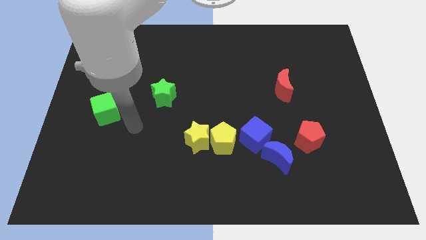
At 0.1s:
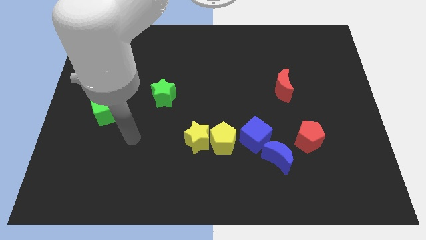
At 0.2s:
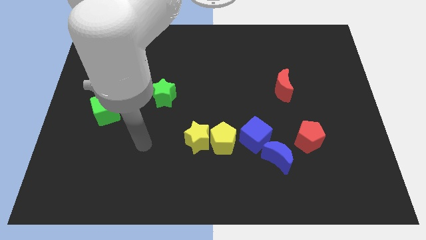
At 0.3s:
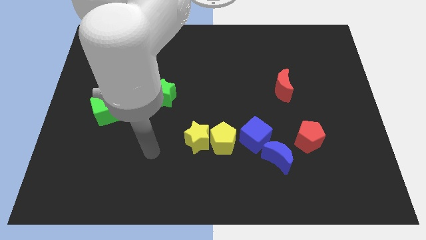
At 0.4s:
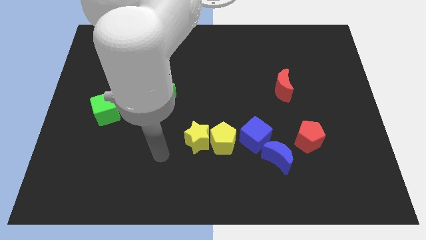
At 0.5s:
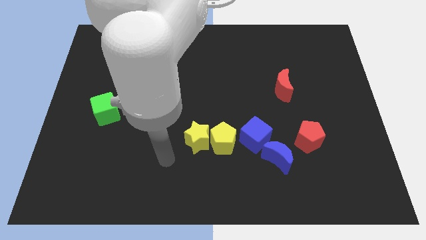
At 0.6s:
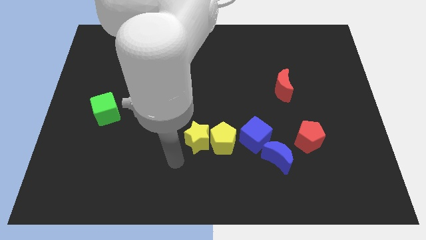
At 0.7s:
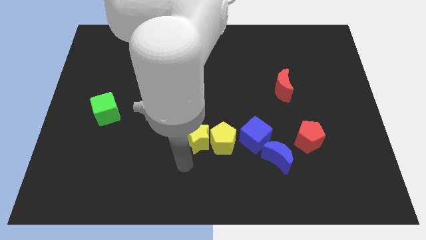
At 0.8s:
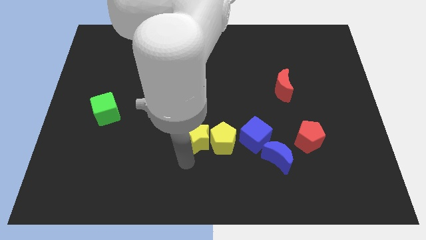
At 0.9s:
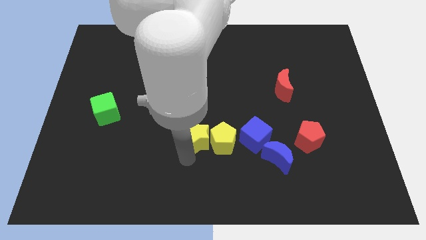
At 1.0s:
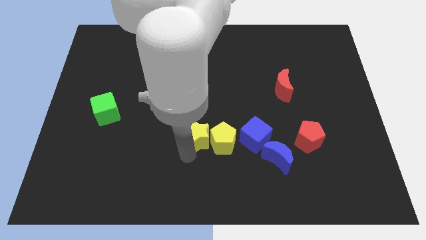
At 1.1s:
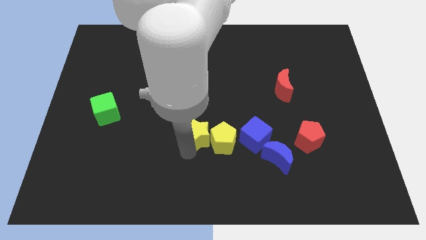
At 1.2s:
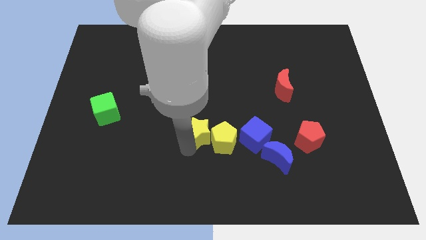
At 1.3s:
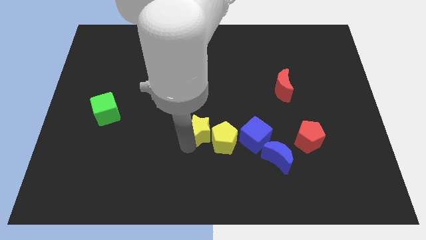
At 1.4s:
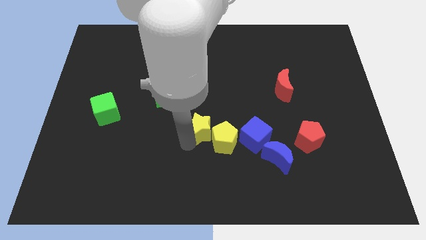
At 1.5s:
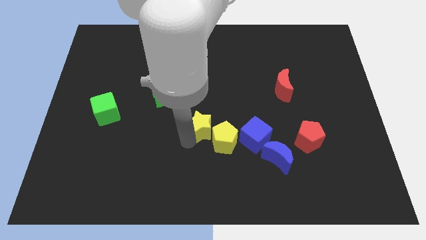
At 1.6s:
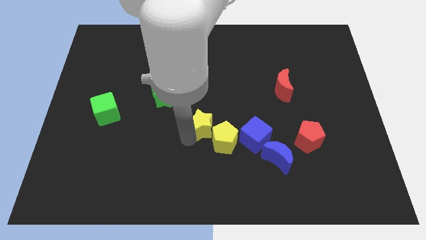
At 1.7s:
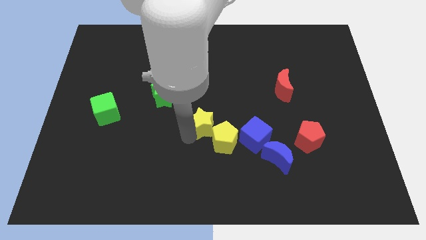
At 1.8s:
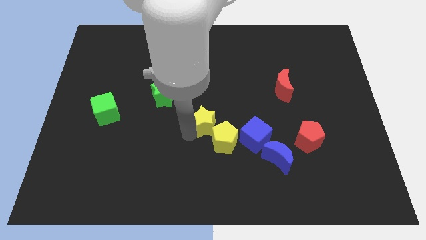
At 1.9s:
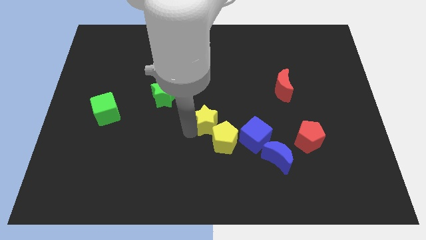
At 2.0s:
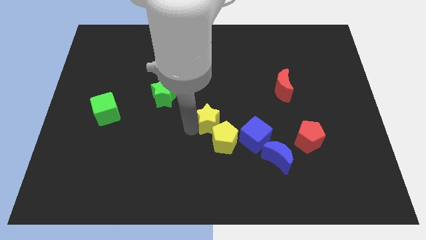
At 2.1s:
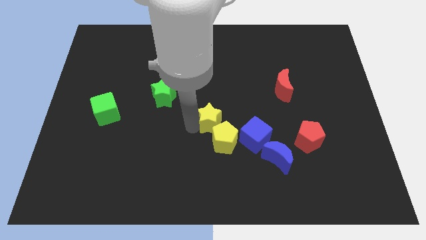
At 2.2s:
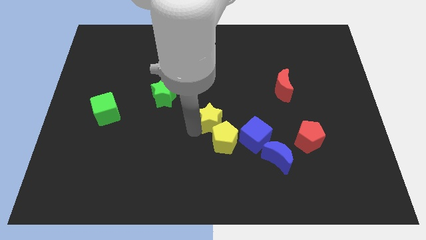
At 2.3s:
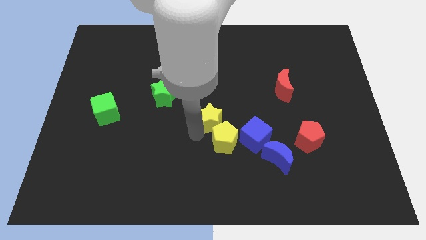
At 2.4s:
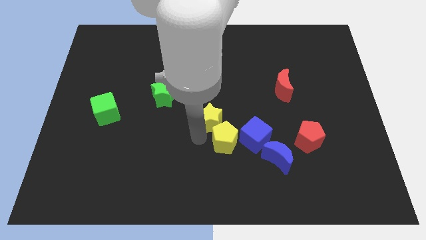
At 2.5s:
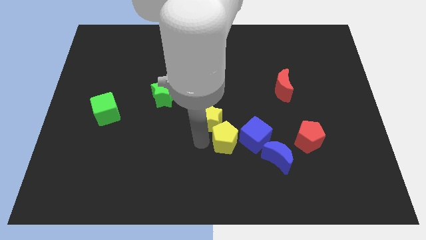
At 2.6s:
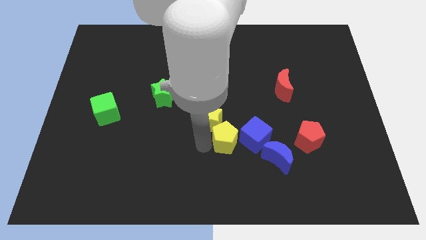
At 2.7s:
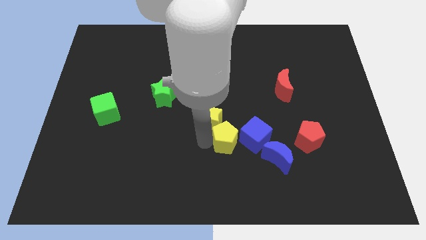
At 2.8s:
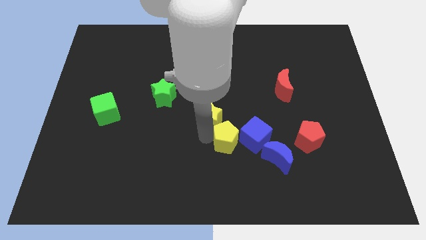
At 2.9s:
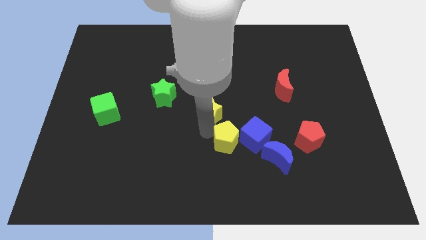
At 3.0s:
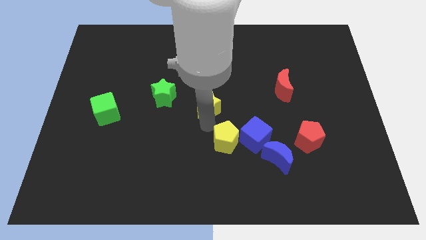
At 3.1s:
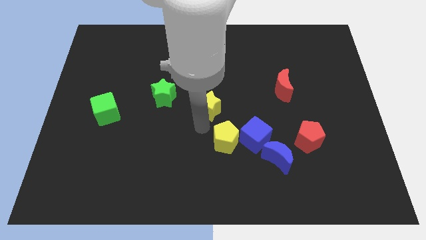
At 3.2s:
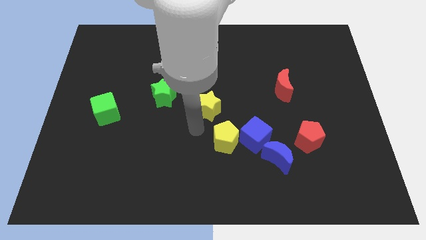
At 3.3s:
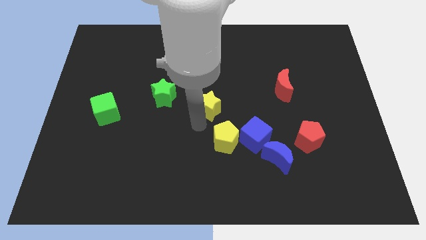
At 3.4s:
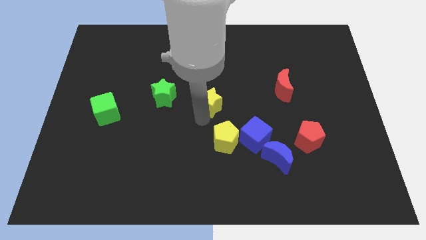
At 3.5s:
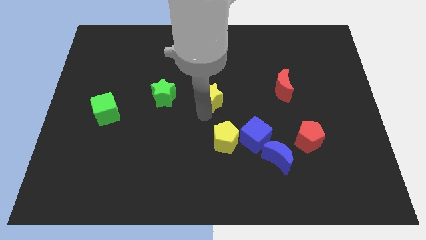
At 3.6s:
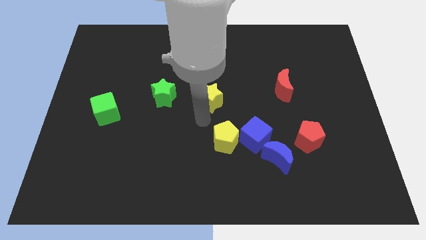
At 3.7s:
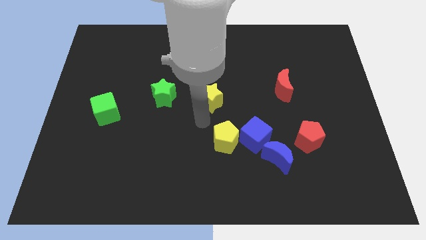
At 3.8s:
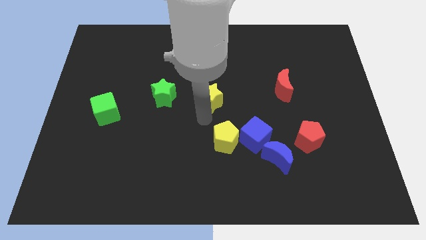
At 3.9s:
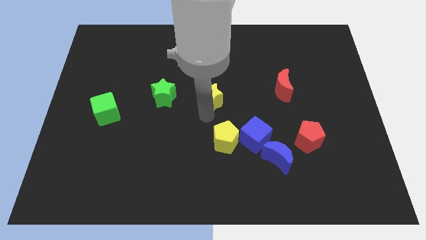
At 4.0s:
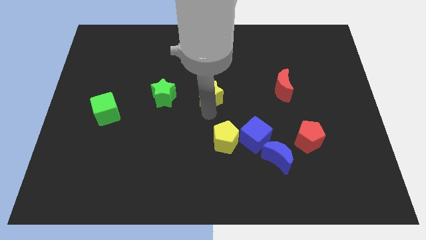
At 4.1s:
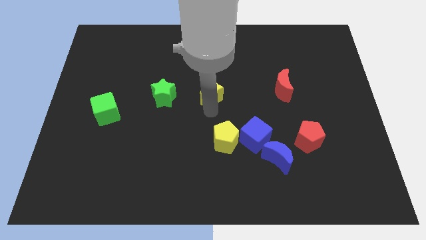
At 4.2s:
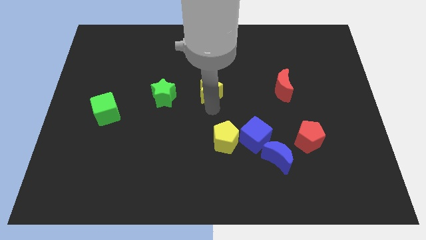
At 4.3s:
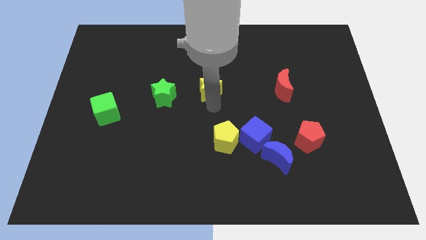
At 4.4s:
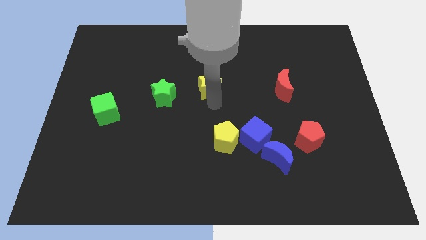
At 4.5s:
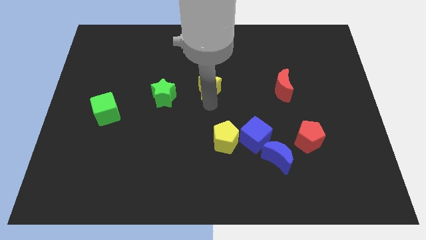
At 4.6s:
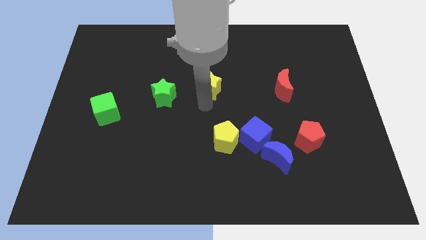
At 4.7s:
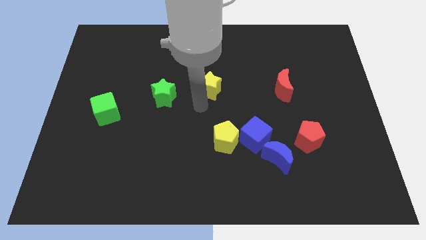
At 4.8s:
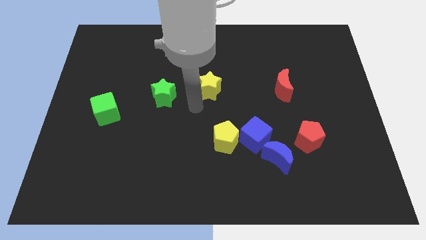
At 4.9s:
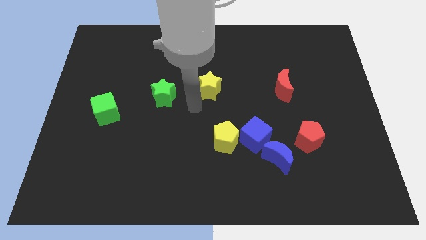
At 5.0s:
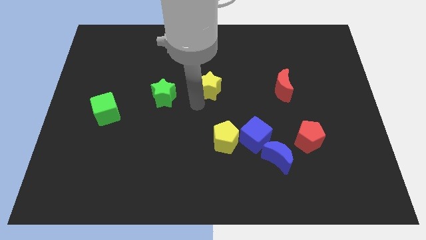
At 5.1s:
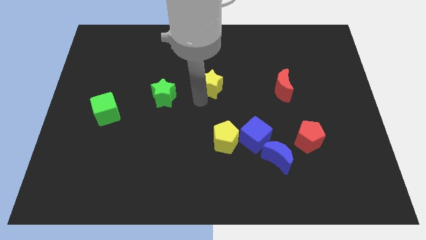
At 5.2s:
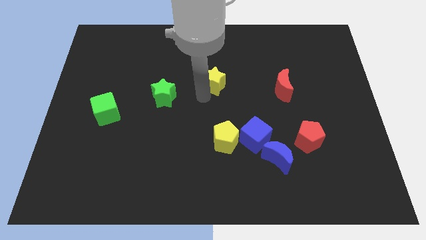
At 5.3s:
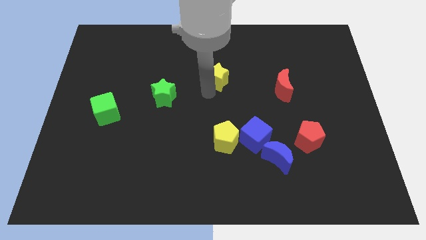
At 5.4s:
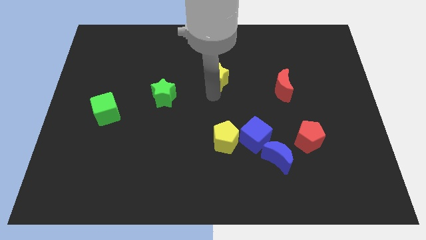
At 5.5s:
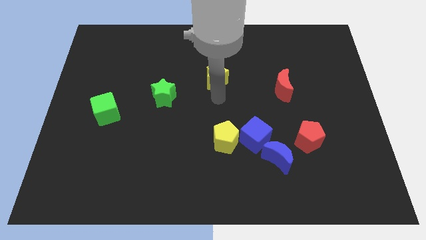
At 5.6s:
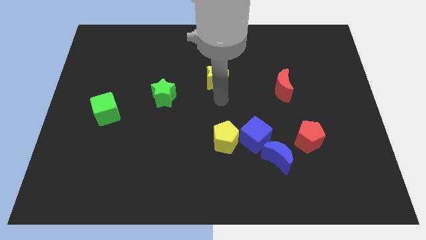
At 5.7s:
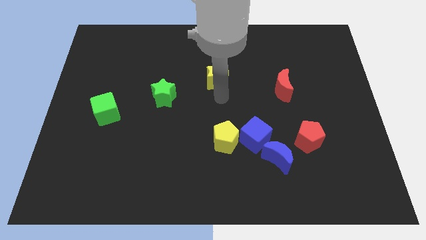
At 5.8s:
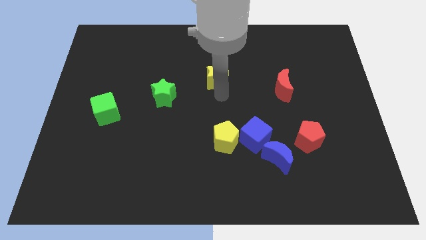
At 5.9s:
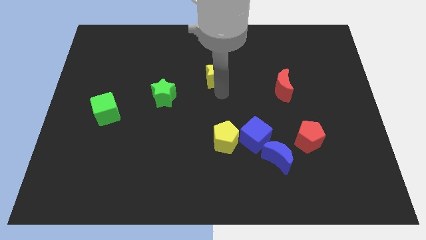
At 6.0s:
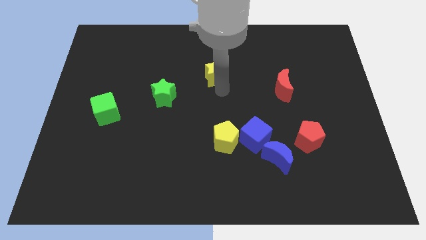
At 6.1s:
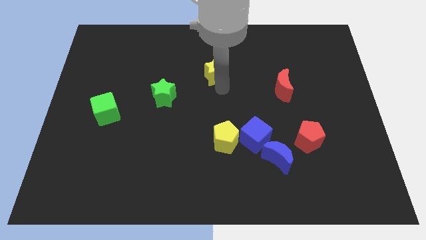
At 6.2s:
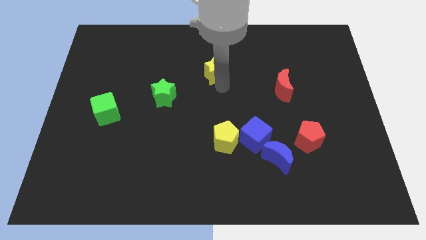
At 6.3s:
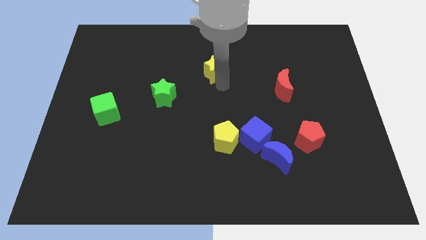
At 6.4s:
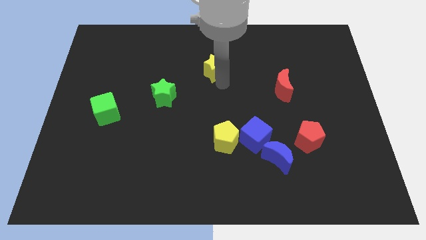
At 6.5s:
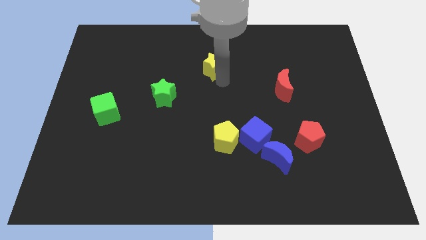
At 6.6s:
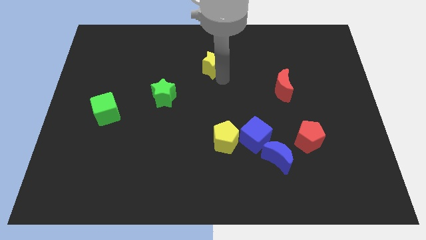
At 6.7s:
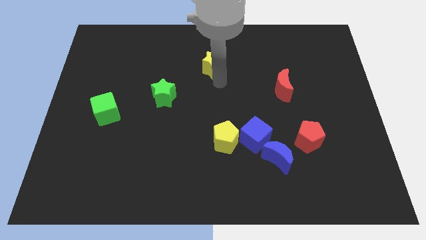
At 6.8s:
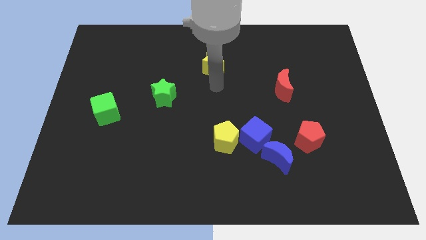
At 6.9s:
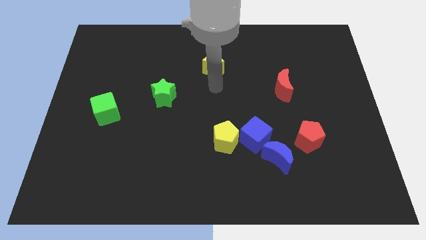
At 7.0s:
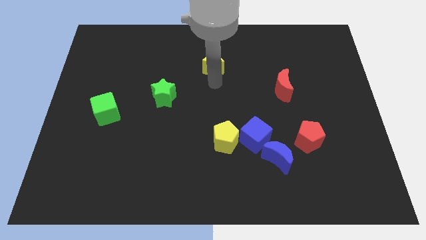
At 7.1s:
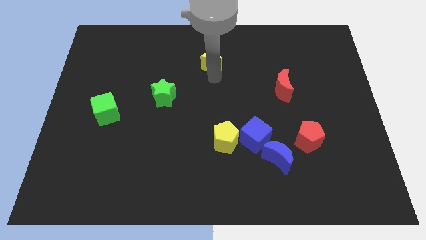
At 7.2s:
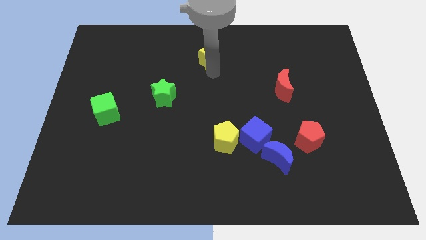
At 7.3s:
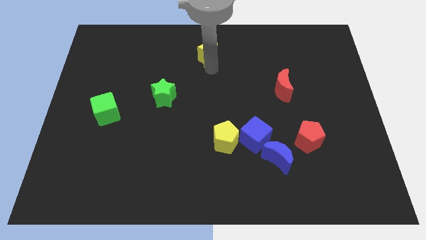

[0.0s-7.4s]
move the yellow star to the top side

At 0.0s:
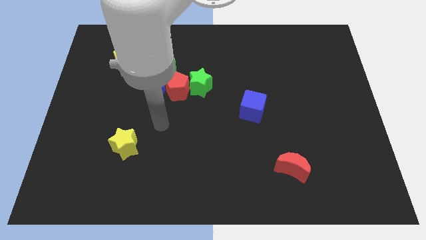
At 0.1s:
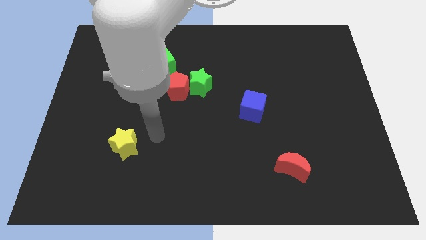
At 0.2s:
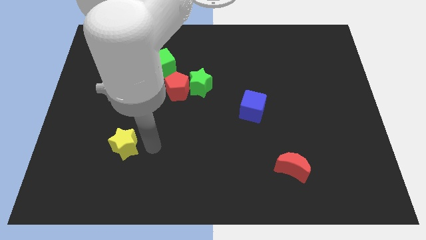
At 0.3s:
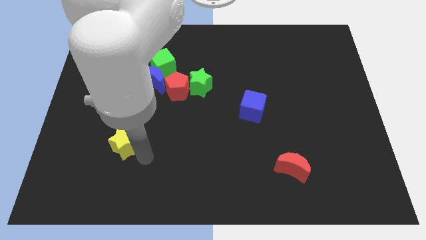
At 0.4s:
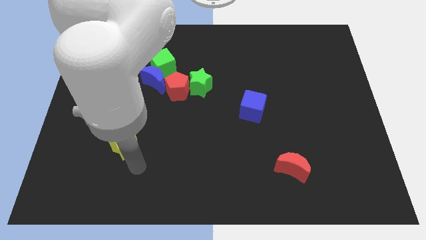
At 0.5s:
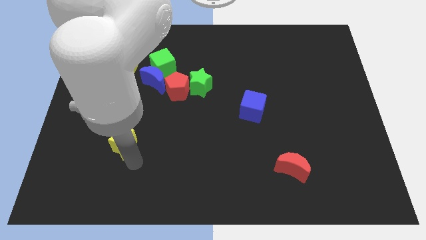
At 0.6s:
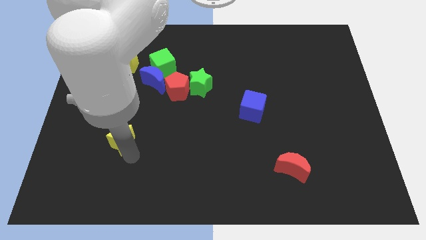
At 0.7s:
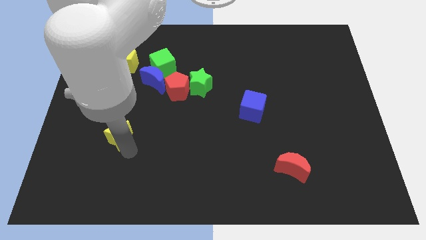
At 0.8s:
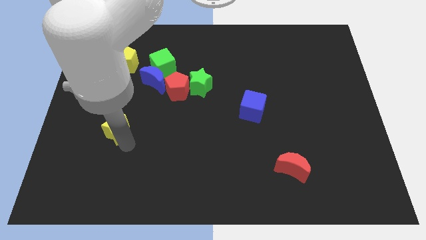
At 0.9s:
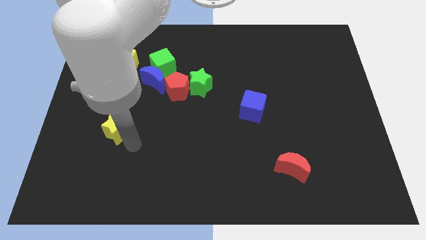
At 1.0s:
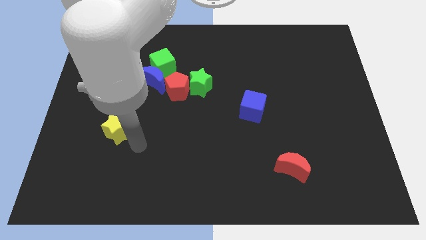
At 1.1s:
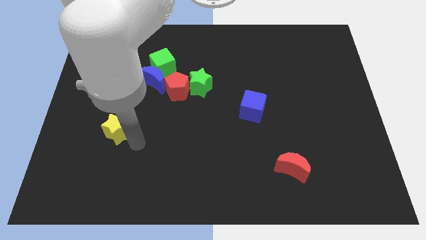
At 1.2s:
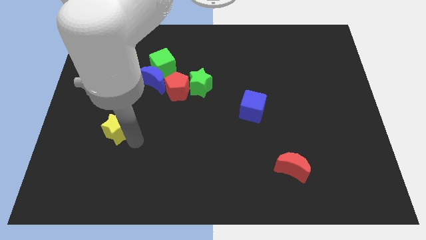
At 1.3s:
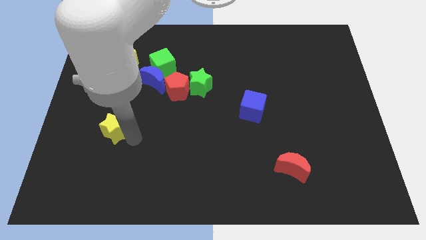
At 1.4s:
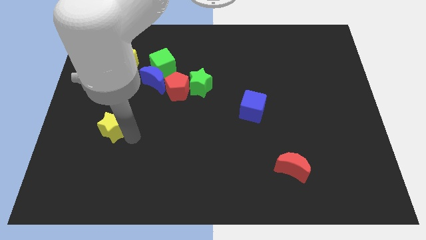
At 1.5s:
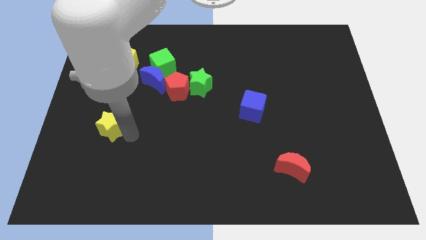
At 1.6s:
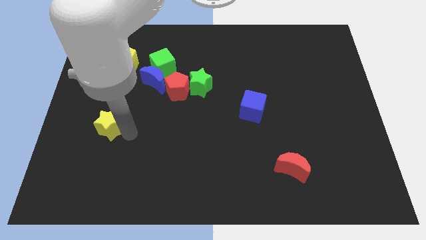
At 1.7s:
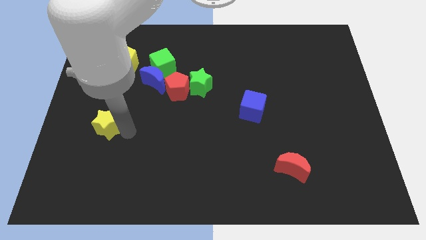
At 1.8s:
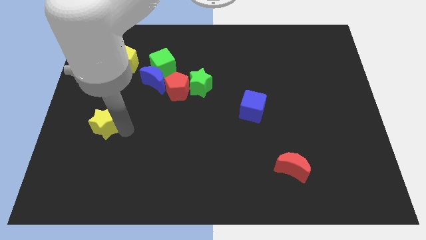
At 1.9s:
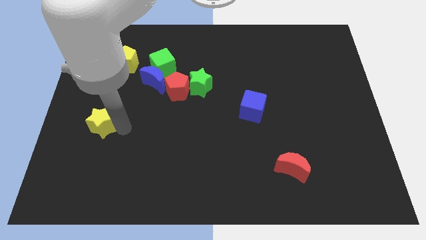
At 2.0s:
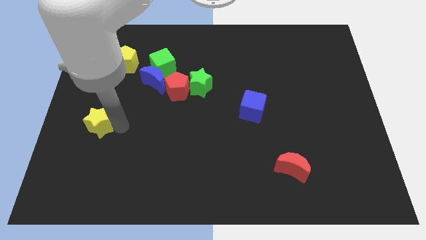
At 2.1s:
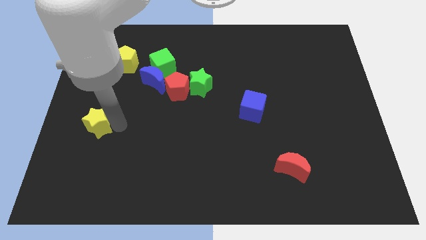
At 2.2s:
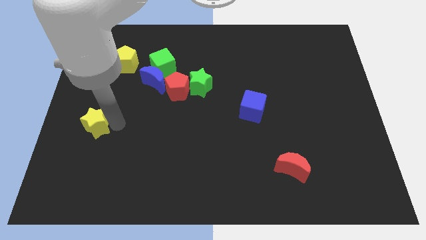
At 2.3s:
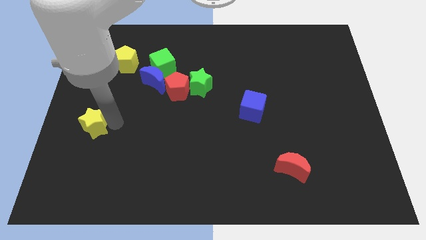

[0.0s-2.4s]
slide the yellow star to the center left
